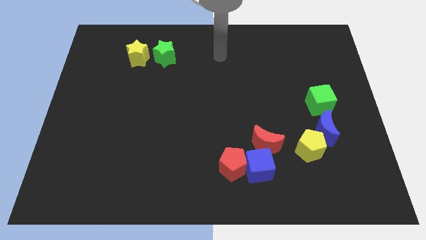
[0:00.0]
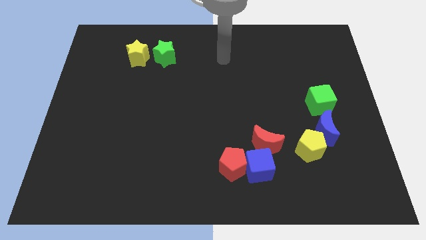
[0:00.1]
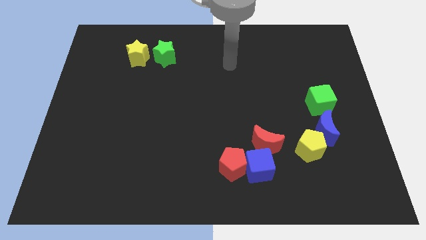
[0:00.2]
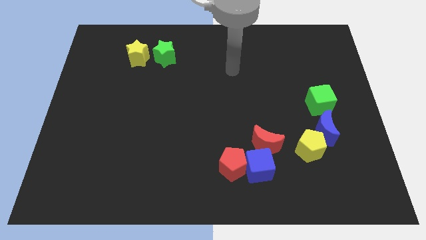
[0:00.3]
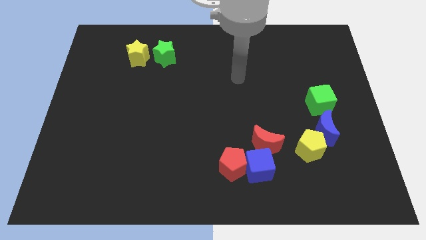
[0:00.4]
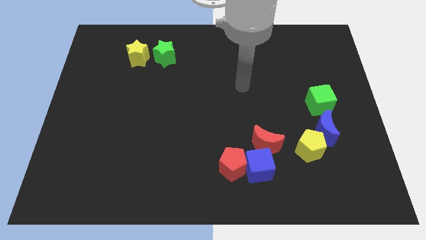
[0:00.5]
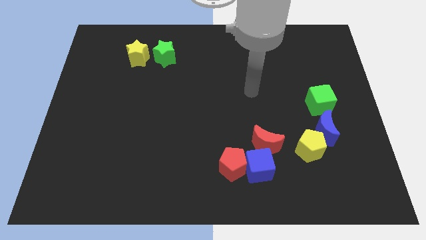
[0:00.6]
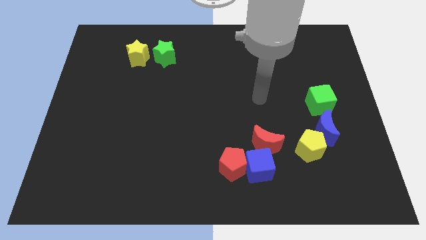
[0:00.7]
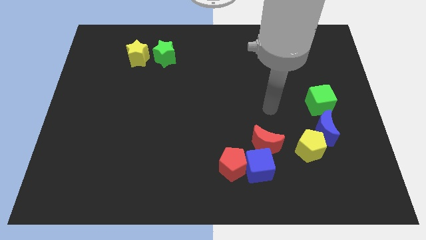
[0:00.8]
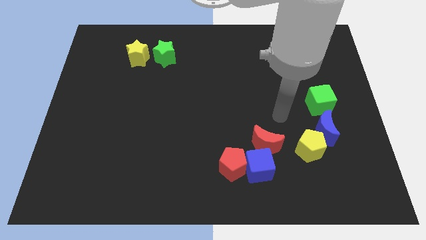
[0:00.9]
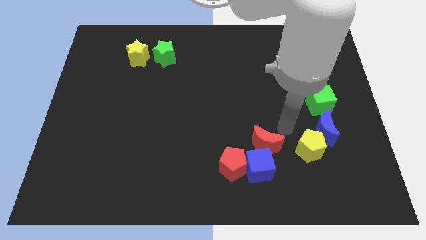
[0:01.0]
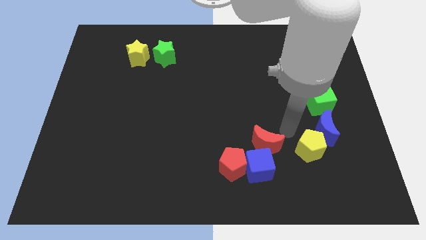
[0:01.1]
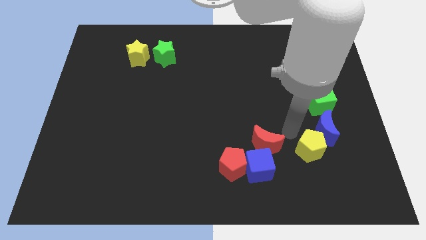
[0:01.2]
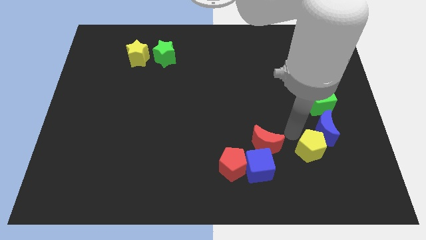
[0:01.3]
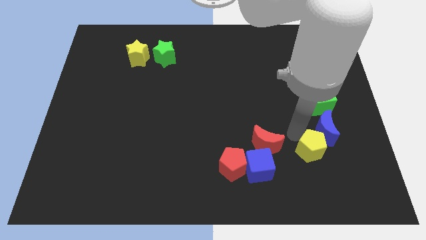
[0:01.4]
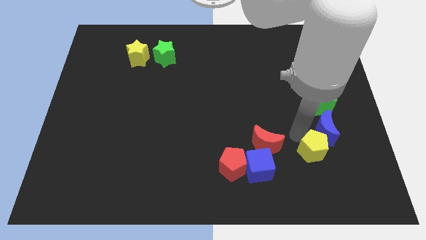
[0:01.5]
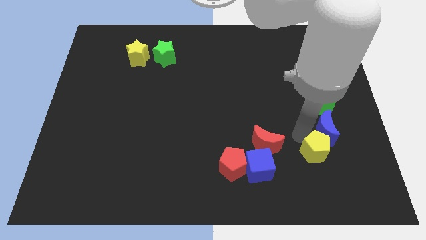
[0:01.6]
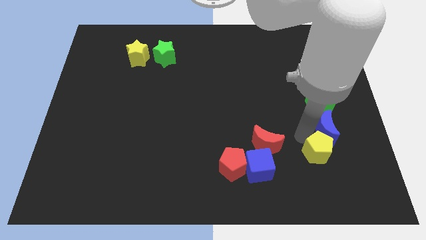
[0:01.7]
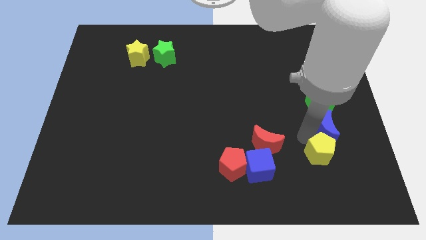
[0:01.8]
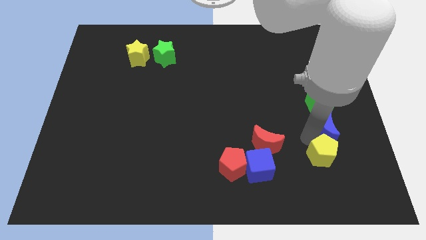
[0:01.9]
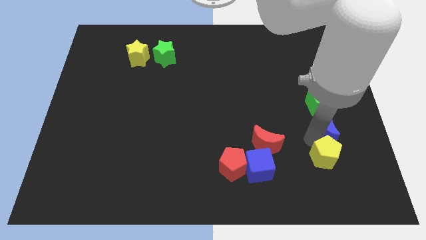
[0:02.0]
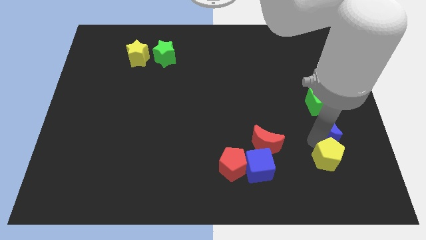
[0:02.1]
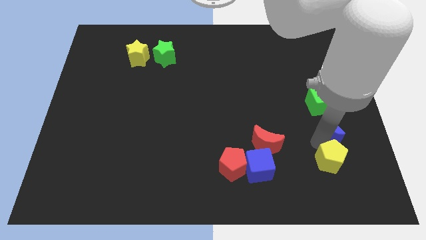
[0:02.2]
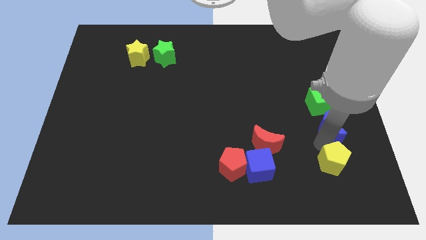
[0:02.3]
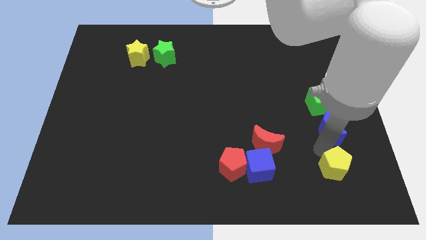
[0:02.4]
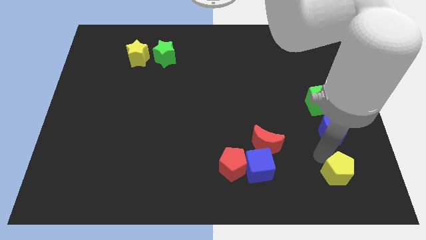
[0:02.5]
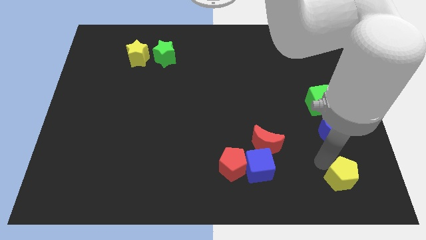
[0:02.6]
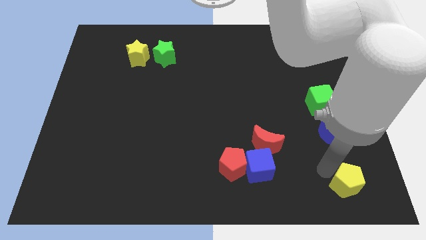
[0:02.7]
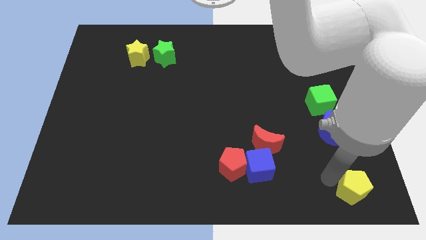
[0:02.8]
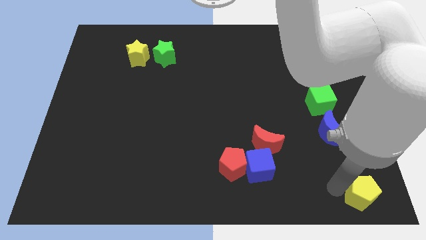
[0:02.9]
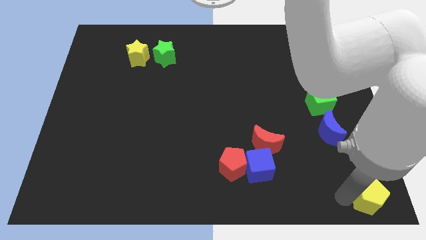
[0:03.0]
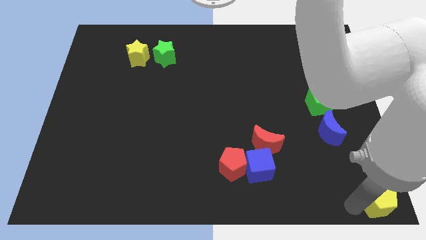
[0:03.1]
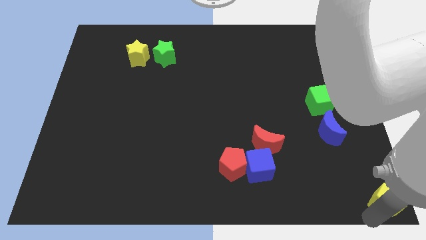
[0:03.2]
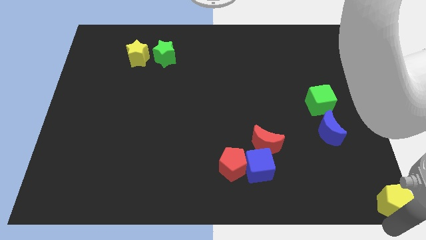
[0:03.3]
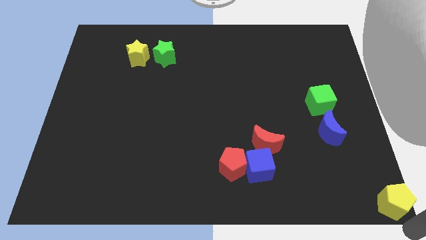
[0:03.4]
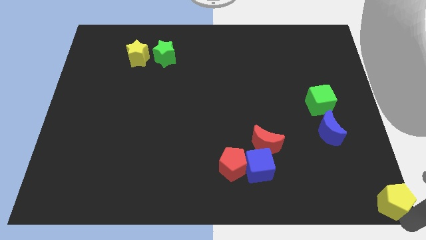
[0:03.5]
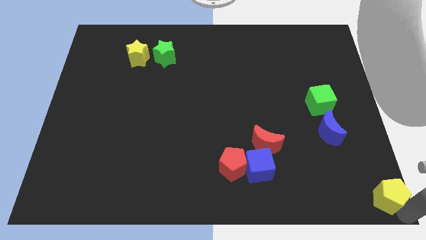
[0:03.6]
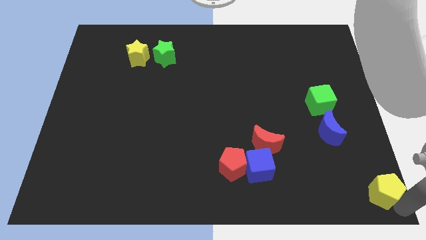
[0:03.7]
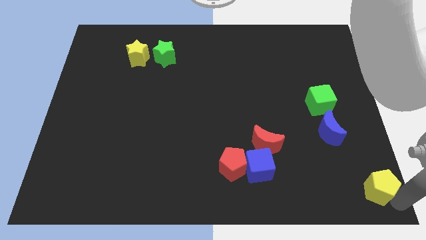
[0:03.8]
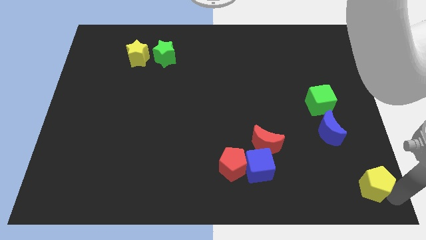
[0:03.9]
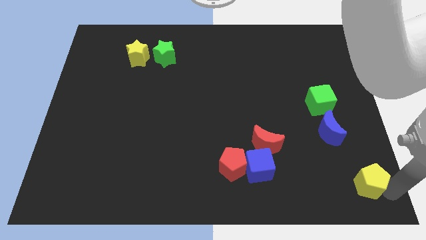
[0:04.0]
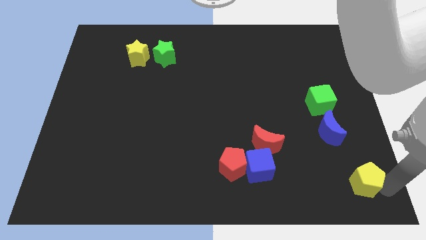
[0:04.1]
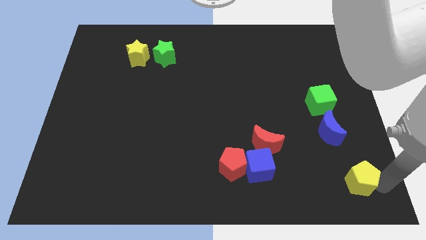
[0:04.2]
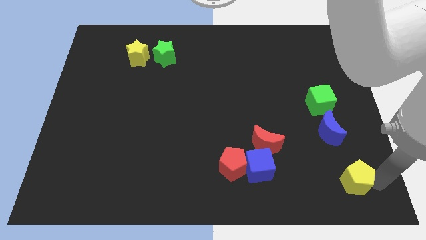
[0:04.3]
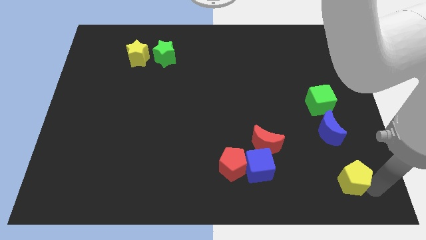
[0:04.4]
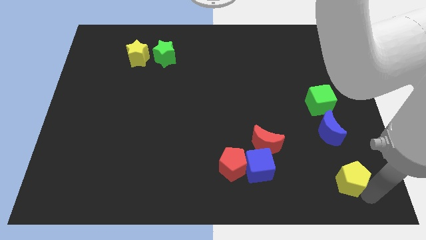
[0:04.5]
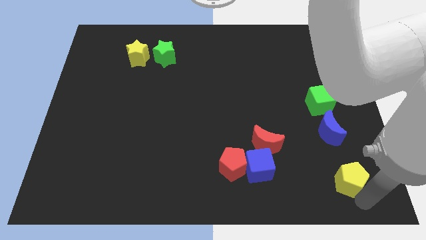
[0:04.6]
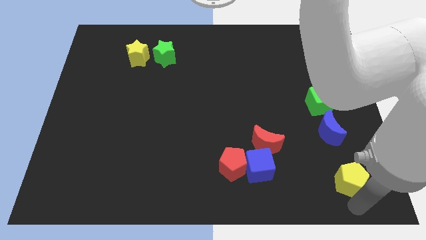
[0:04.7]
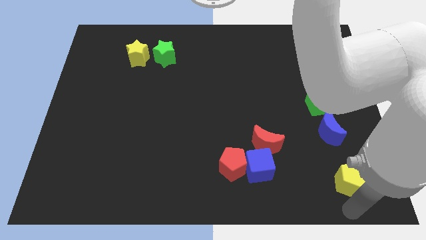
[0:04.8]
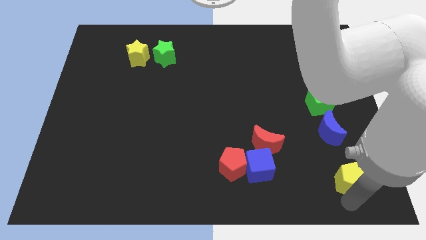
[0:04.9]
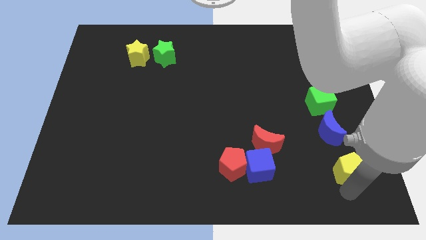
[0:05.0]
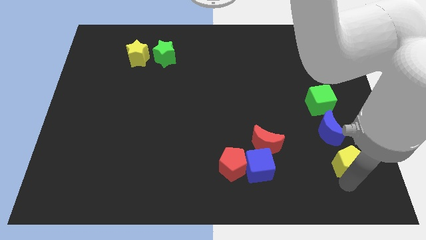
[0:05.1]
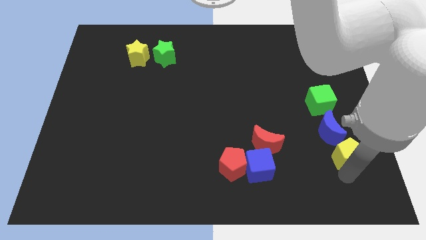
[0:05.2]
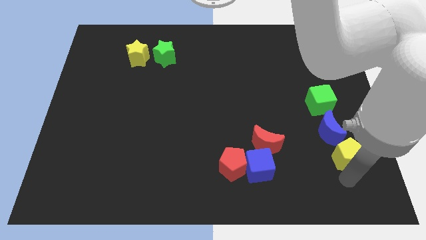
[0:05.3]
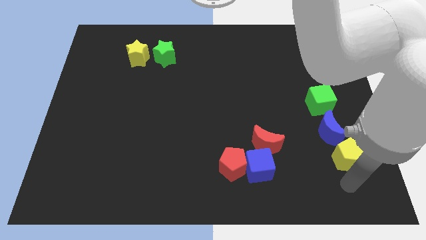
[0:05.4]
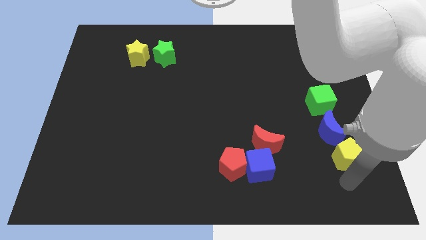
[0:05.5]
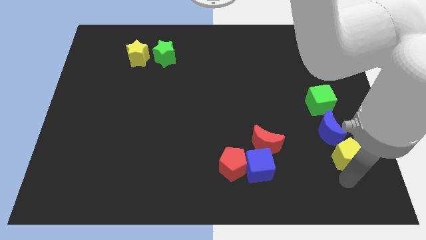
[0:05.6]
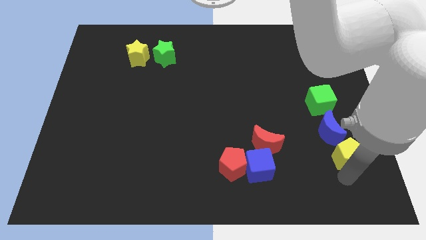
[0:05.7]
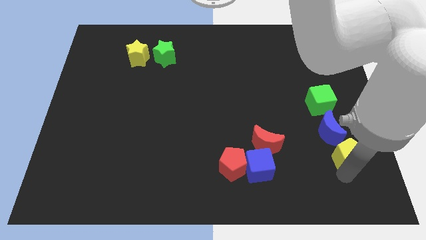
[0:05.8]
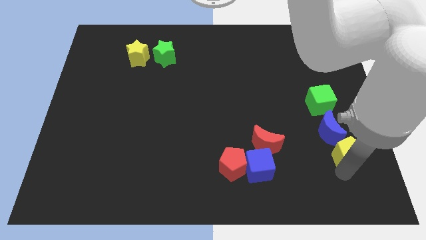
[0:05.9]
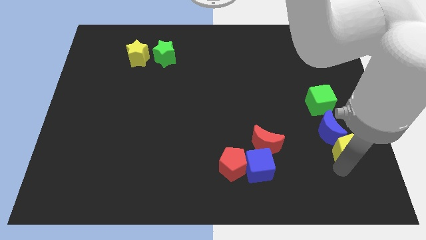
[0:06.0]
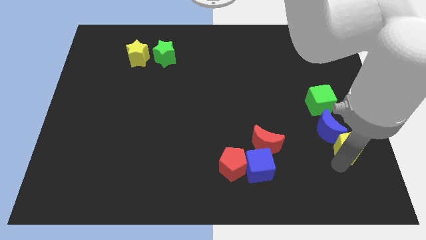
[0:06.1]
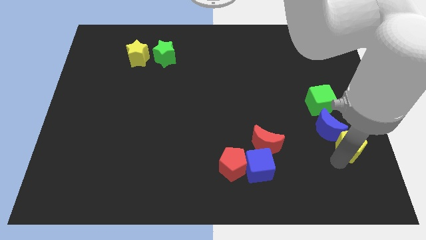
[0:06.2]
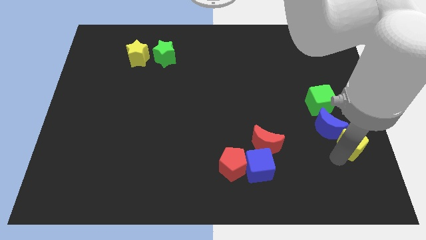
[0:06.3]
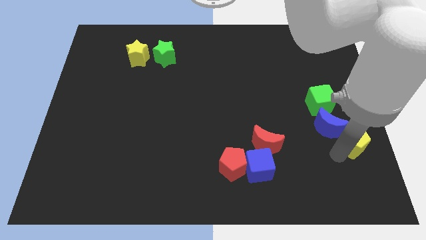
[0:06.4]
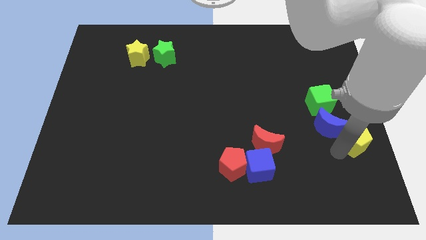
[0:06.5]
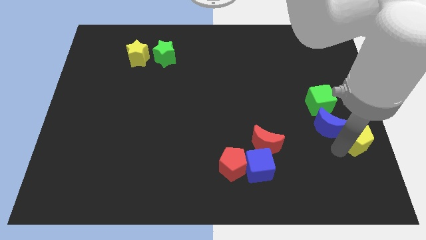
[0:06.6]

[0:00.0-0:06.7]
move the yellow pentagon to the right side

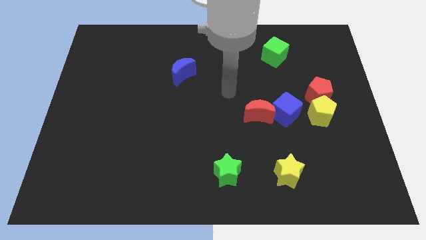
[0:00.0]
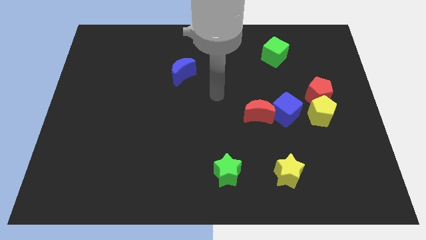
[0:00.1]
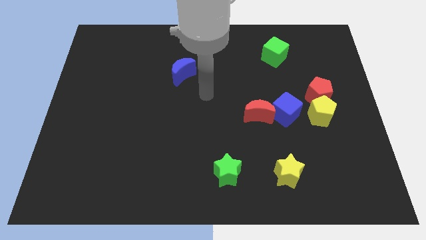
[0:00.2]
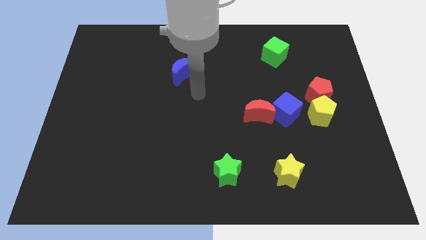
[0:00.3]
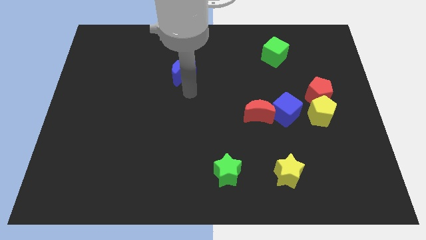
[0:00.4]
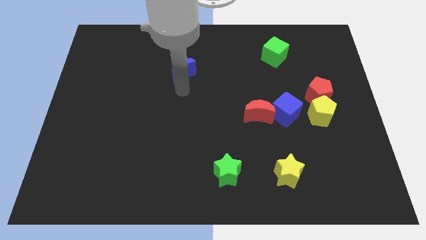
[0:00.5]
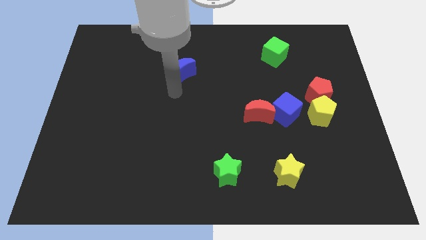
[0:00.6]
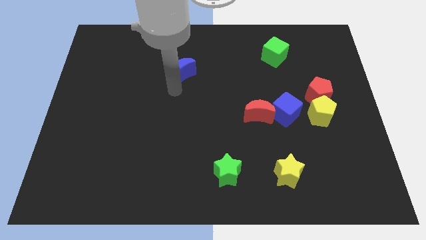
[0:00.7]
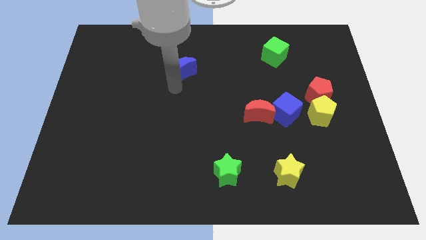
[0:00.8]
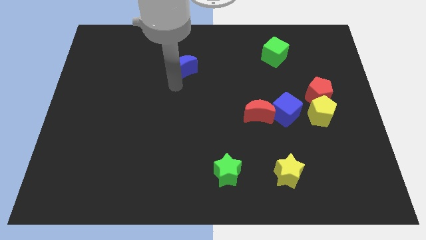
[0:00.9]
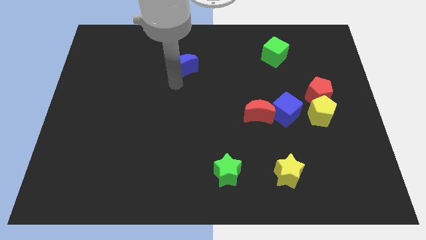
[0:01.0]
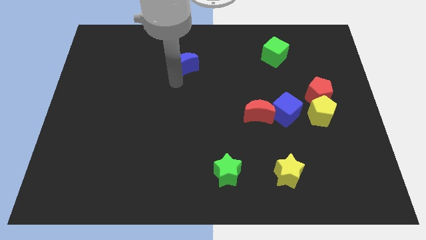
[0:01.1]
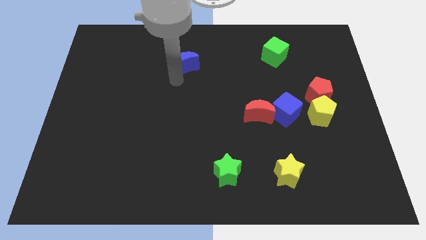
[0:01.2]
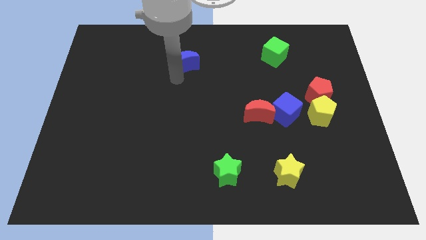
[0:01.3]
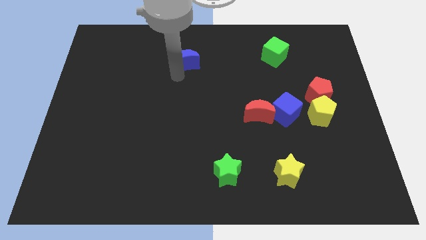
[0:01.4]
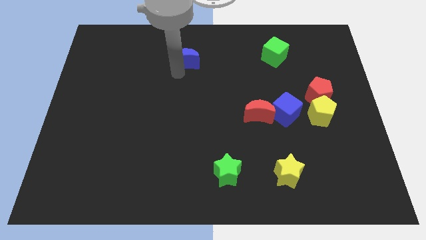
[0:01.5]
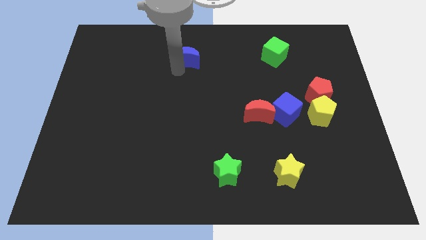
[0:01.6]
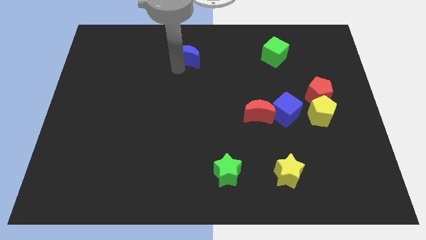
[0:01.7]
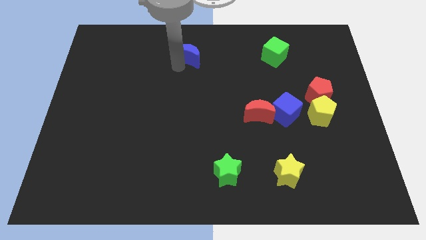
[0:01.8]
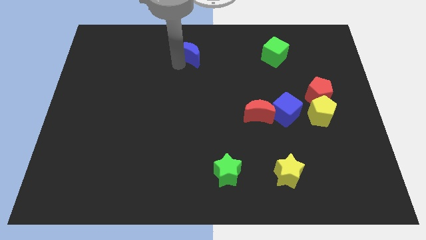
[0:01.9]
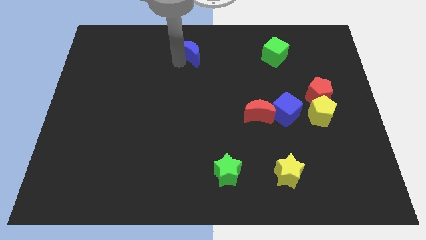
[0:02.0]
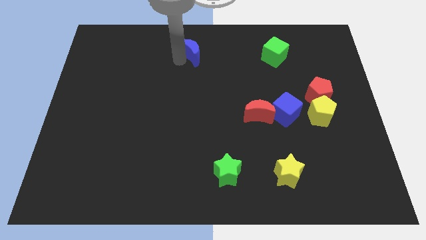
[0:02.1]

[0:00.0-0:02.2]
move the blue moon to the top side
